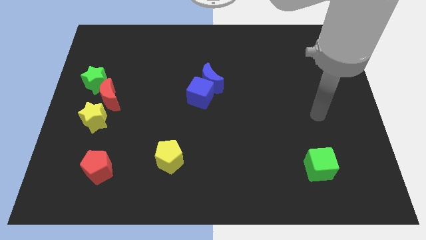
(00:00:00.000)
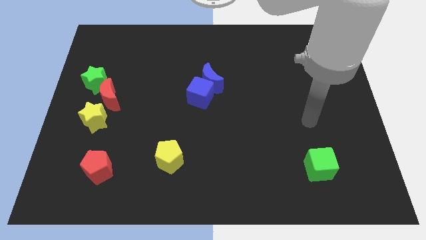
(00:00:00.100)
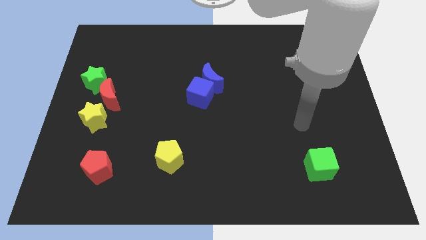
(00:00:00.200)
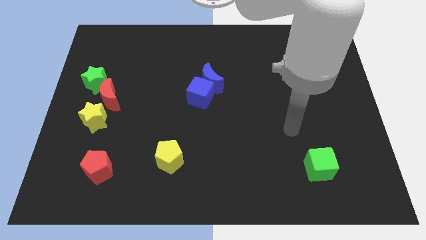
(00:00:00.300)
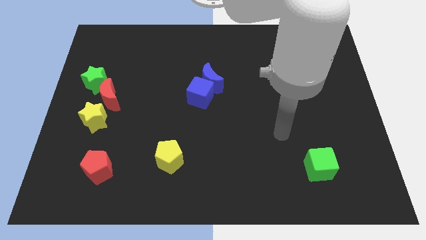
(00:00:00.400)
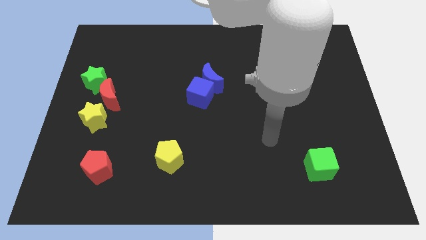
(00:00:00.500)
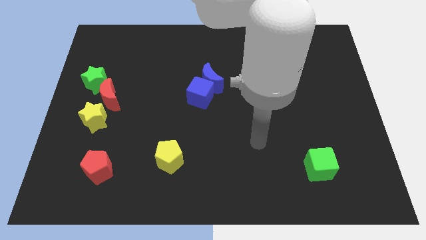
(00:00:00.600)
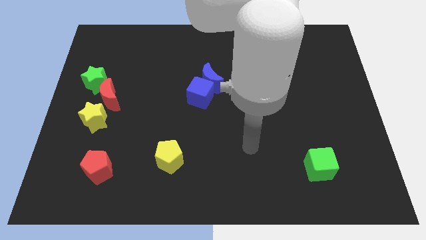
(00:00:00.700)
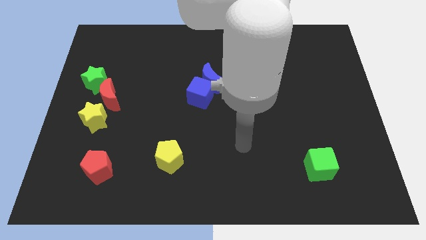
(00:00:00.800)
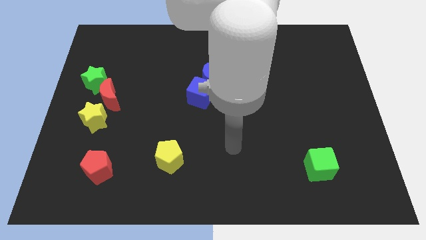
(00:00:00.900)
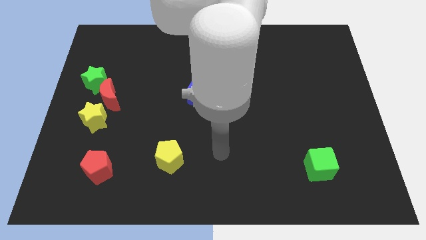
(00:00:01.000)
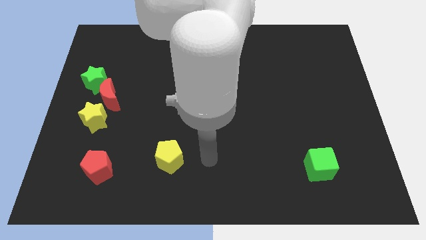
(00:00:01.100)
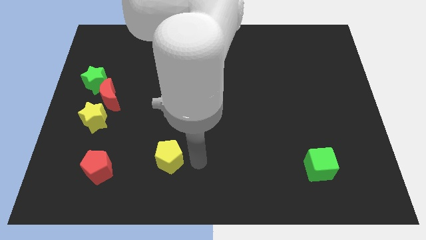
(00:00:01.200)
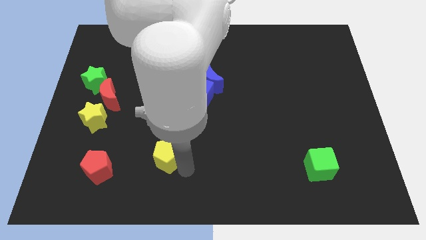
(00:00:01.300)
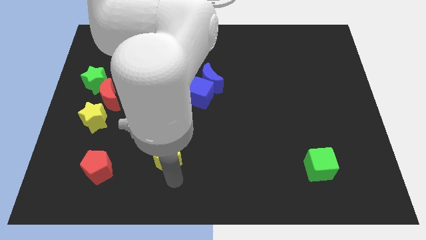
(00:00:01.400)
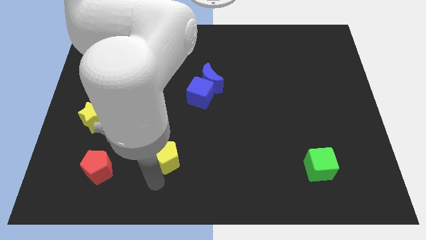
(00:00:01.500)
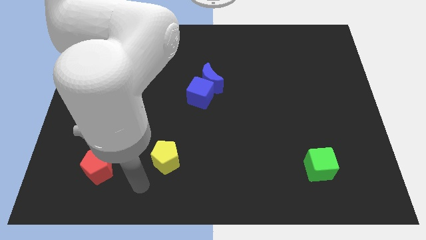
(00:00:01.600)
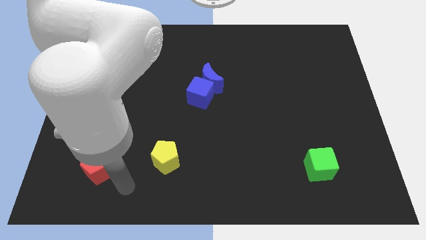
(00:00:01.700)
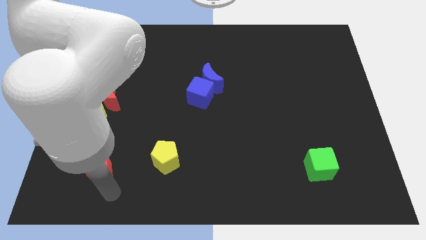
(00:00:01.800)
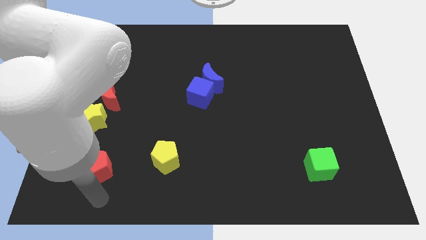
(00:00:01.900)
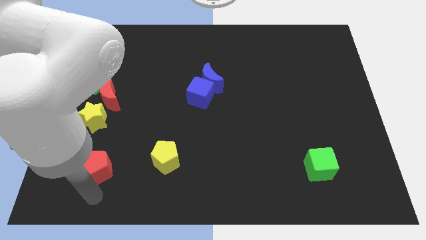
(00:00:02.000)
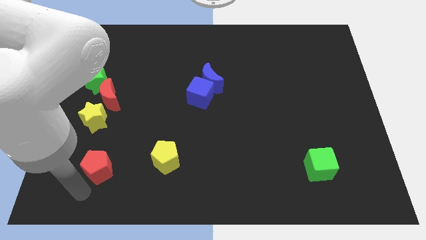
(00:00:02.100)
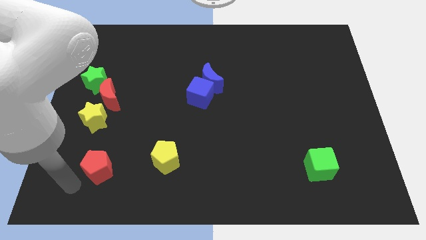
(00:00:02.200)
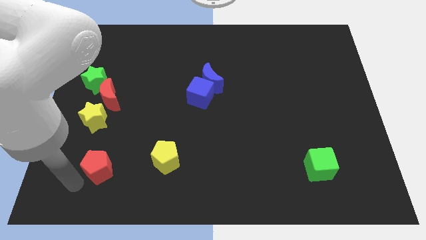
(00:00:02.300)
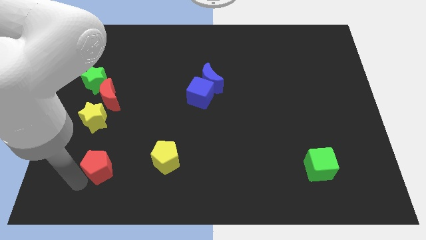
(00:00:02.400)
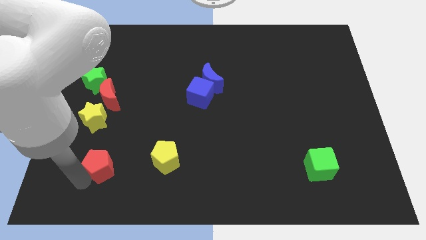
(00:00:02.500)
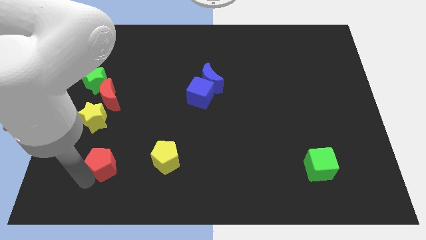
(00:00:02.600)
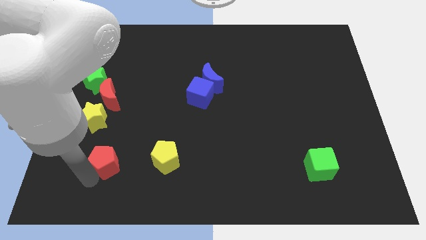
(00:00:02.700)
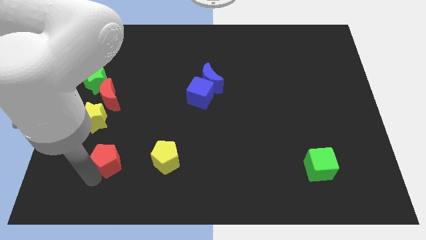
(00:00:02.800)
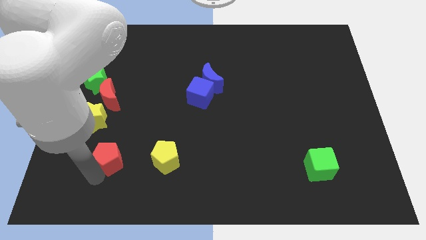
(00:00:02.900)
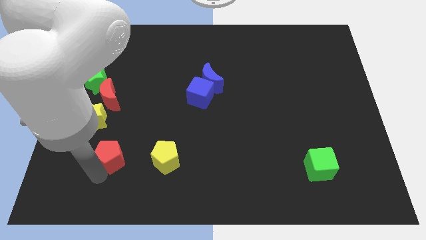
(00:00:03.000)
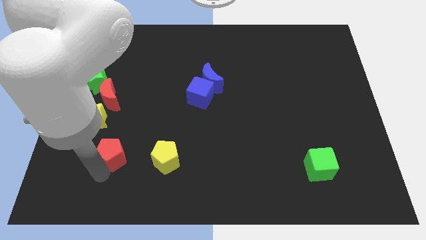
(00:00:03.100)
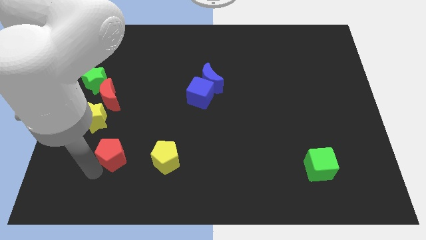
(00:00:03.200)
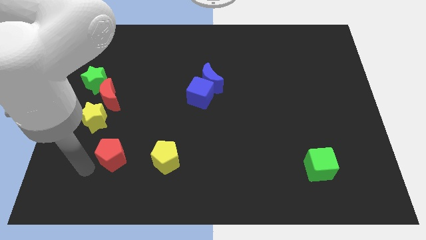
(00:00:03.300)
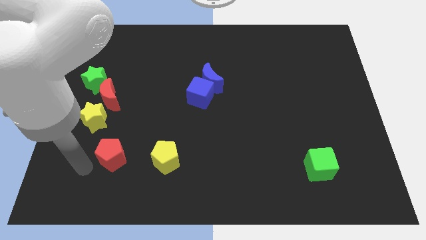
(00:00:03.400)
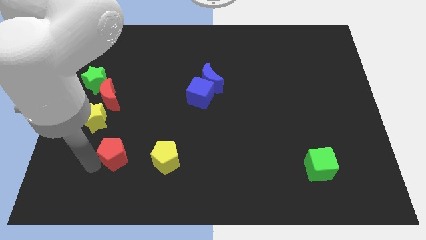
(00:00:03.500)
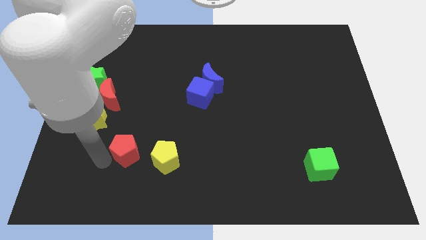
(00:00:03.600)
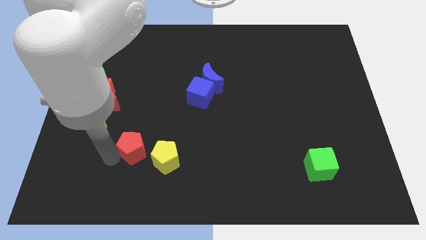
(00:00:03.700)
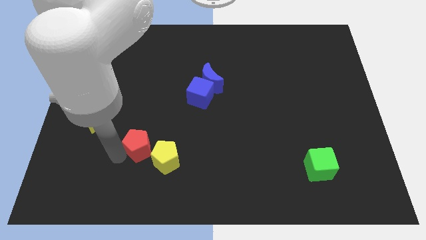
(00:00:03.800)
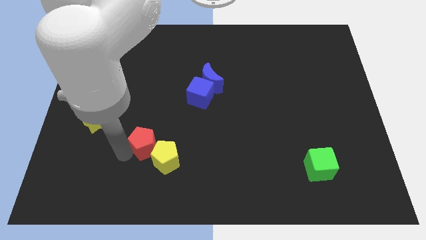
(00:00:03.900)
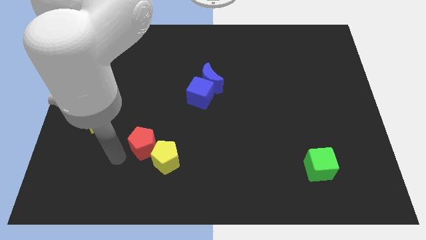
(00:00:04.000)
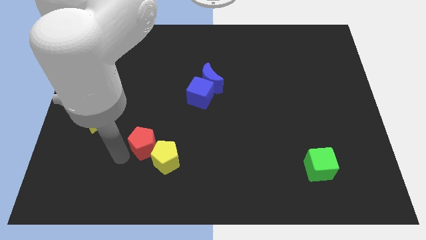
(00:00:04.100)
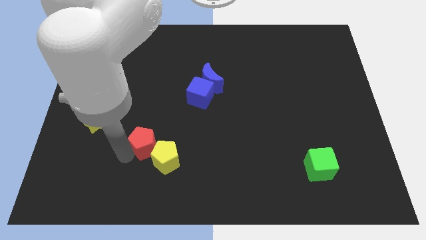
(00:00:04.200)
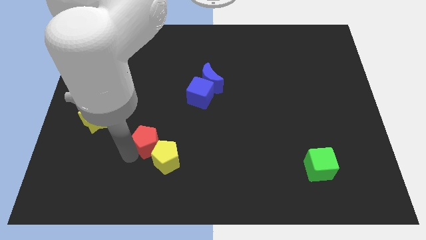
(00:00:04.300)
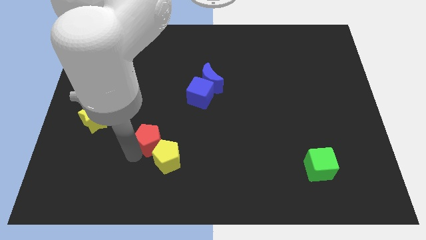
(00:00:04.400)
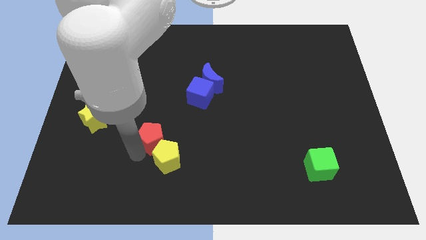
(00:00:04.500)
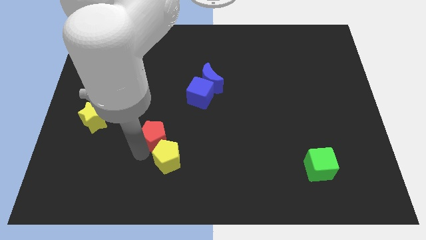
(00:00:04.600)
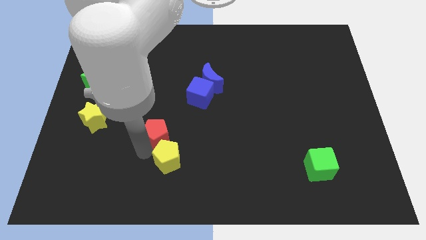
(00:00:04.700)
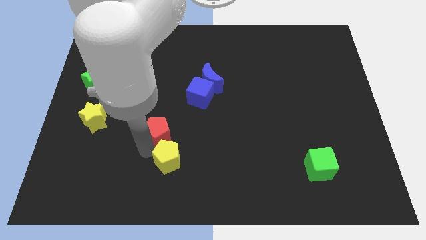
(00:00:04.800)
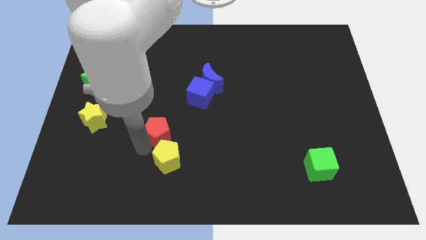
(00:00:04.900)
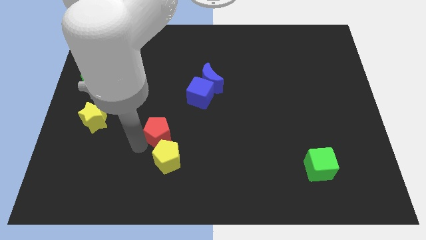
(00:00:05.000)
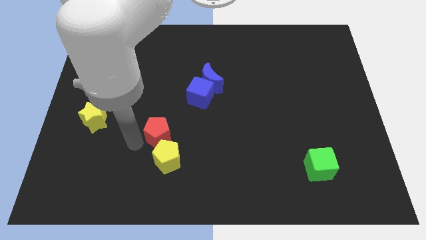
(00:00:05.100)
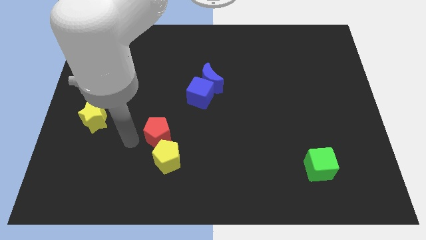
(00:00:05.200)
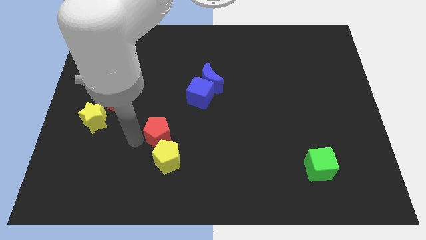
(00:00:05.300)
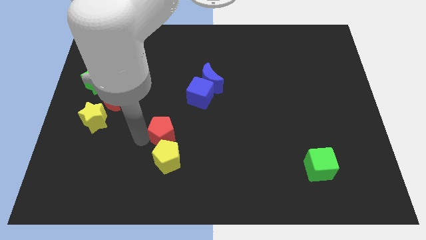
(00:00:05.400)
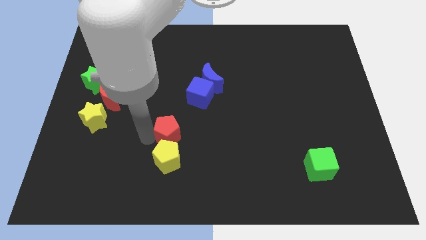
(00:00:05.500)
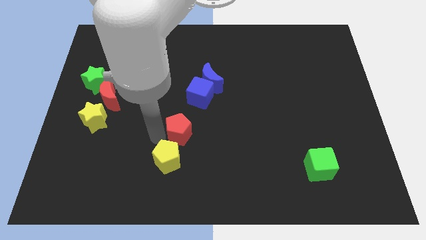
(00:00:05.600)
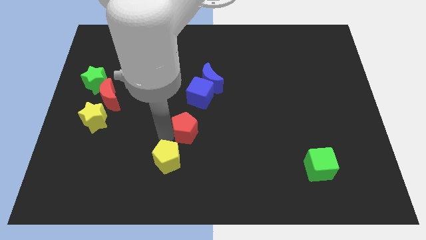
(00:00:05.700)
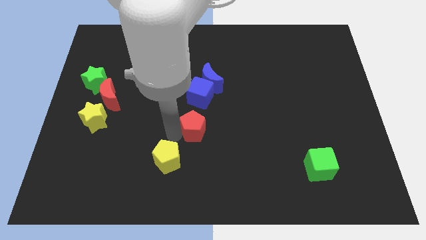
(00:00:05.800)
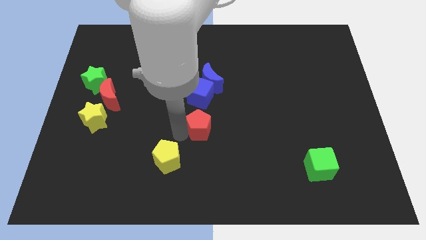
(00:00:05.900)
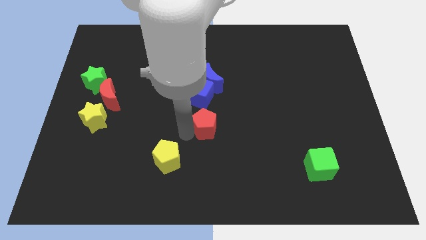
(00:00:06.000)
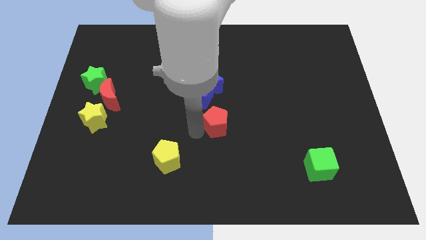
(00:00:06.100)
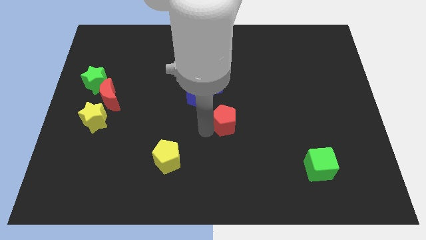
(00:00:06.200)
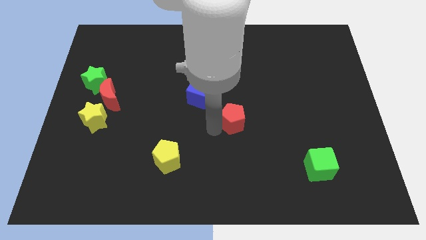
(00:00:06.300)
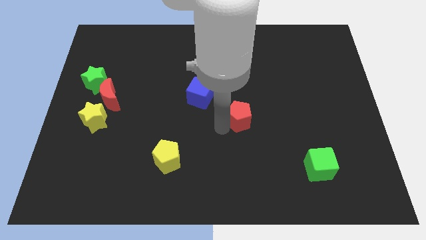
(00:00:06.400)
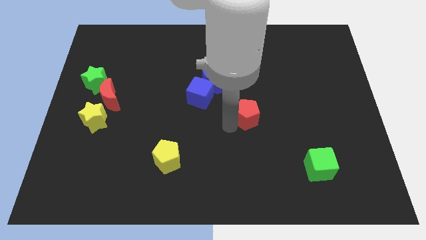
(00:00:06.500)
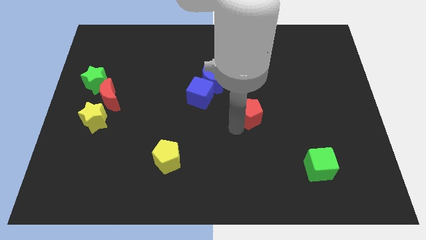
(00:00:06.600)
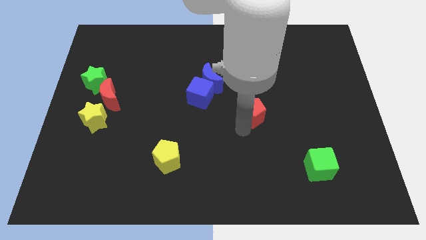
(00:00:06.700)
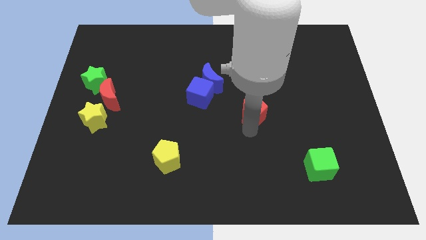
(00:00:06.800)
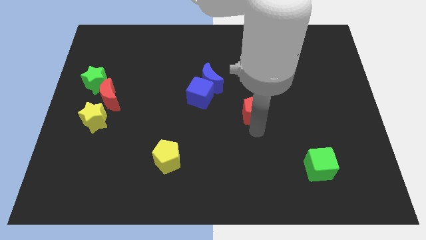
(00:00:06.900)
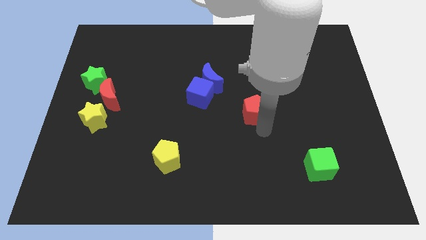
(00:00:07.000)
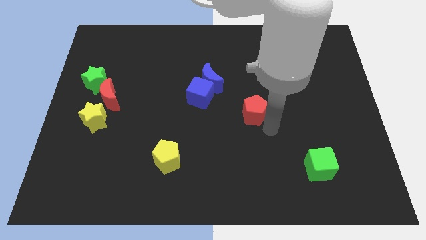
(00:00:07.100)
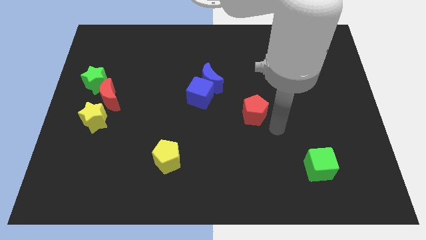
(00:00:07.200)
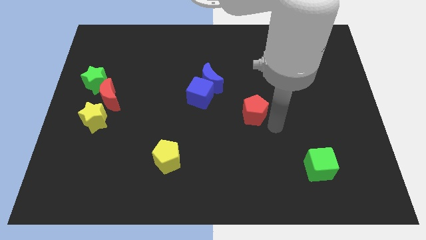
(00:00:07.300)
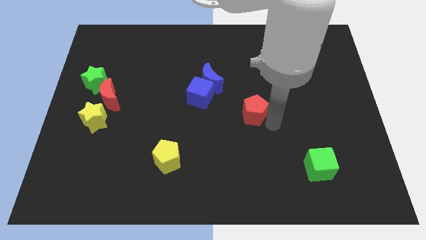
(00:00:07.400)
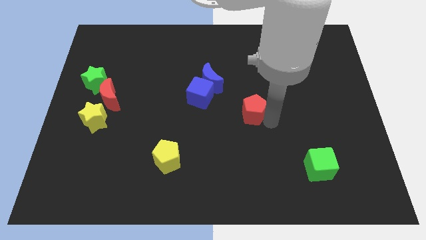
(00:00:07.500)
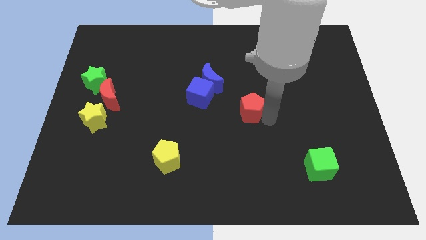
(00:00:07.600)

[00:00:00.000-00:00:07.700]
slide the red pentagon to the bottom right of the blue moon

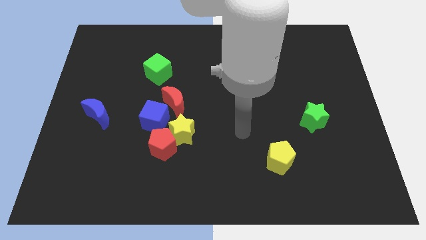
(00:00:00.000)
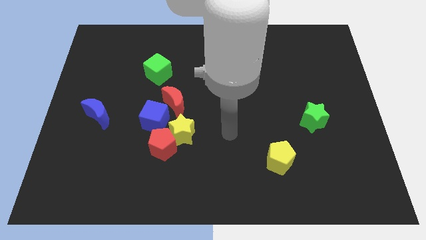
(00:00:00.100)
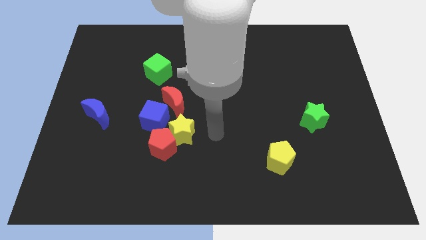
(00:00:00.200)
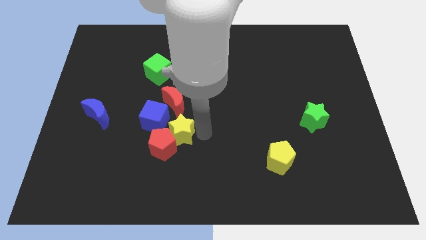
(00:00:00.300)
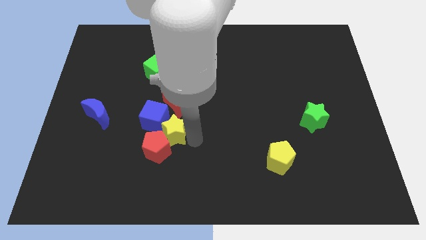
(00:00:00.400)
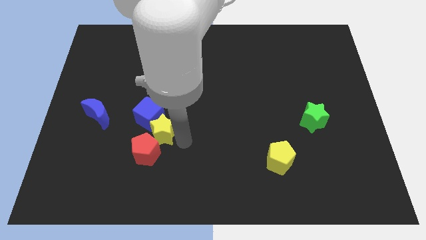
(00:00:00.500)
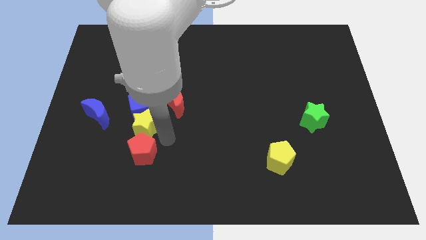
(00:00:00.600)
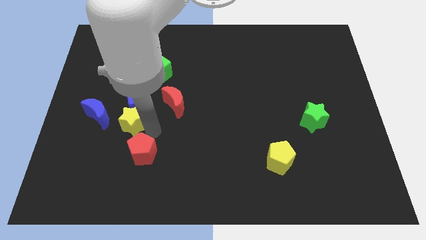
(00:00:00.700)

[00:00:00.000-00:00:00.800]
push the blue cube to the bottom left side of the green cube
